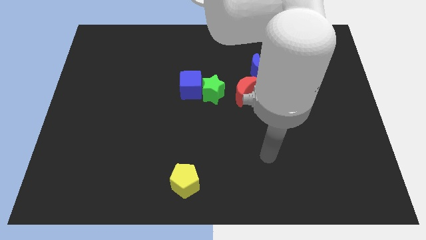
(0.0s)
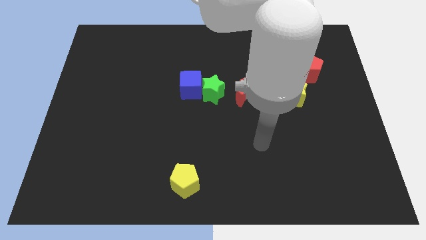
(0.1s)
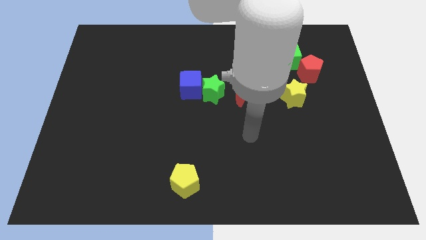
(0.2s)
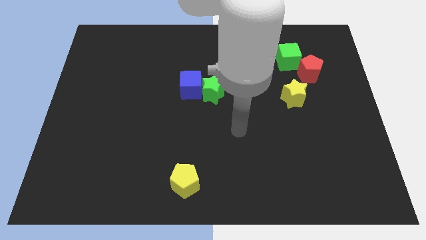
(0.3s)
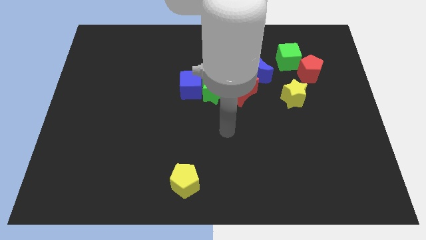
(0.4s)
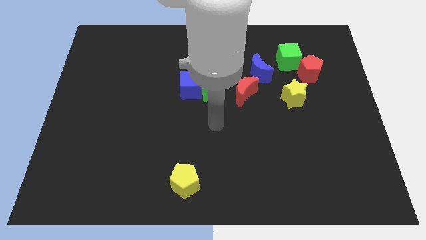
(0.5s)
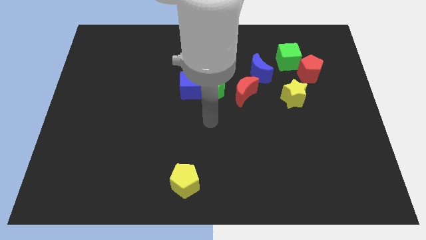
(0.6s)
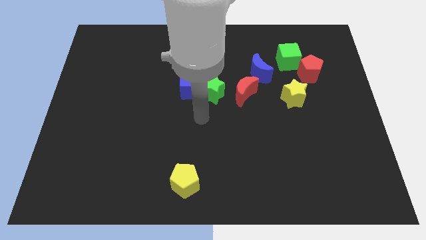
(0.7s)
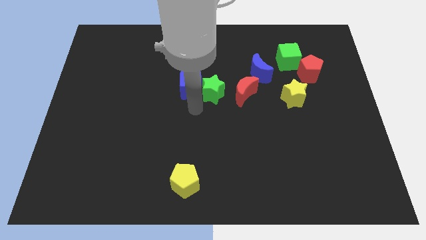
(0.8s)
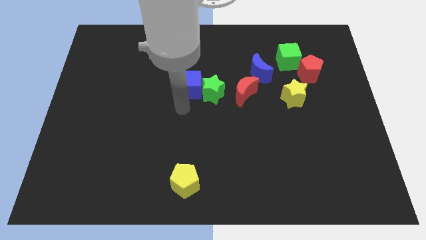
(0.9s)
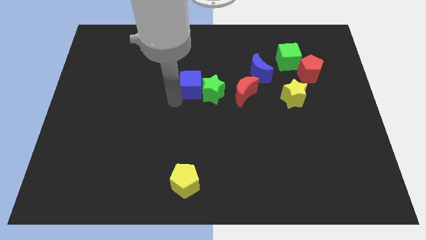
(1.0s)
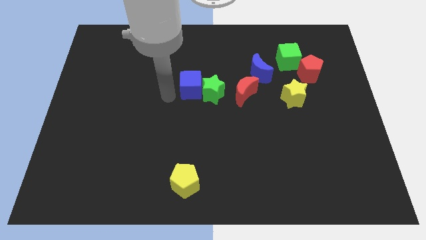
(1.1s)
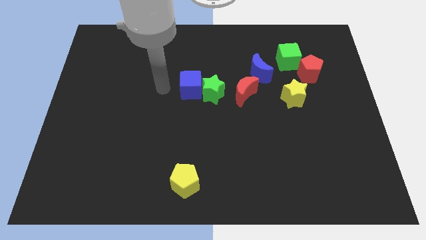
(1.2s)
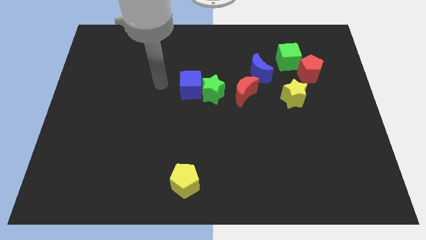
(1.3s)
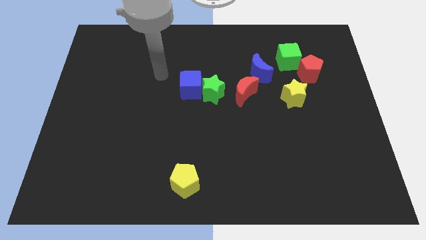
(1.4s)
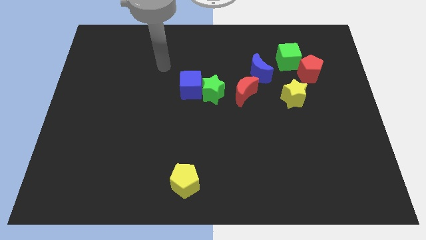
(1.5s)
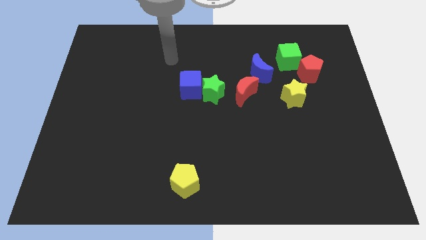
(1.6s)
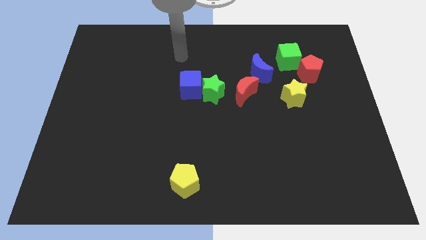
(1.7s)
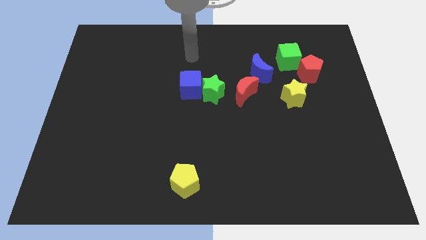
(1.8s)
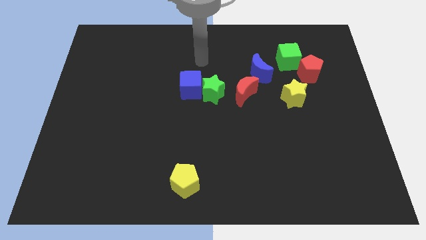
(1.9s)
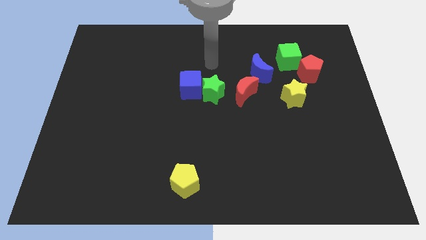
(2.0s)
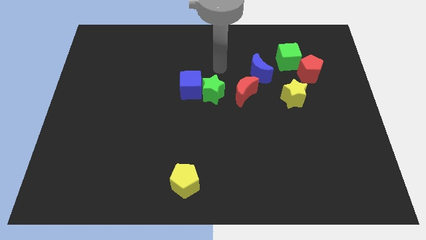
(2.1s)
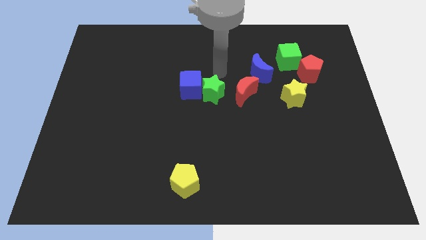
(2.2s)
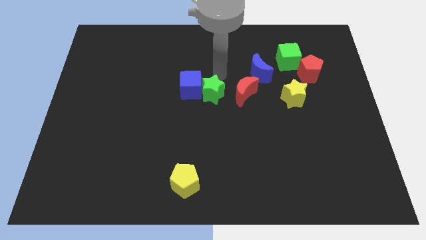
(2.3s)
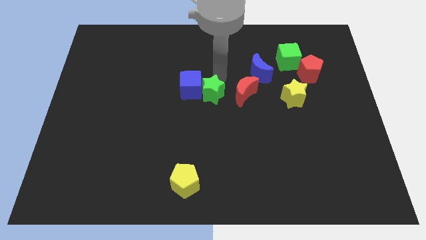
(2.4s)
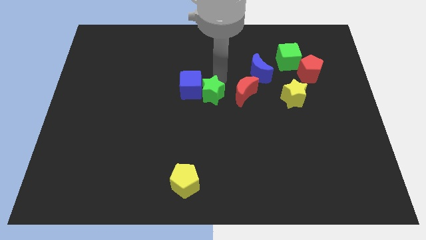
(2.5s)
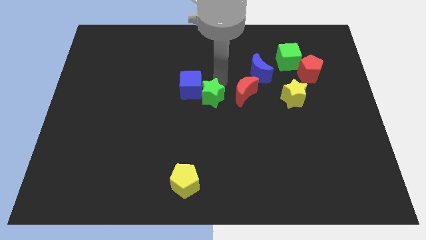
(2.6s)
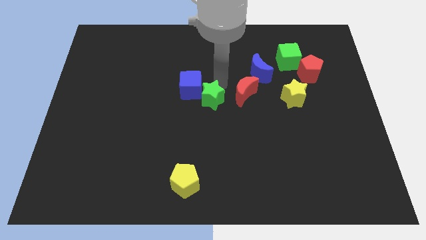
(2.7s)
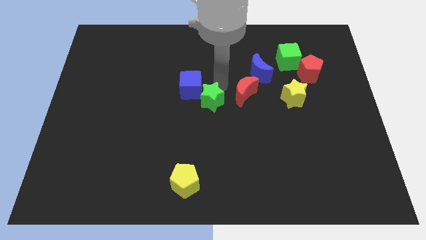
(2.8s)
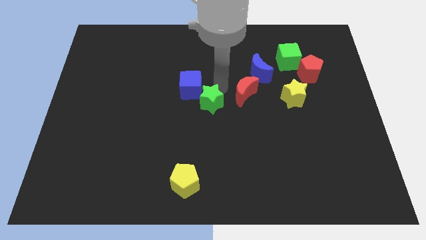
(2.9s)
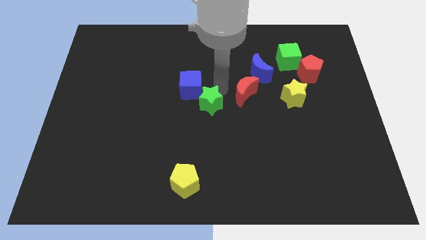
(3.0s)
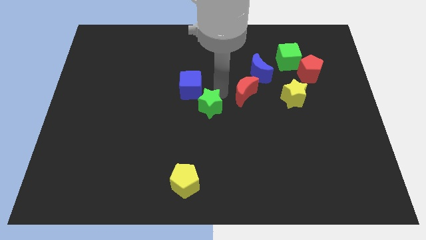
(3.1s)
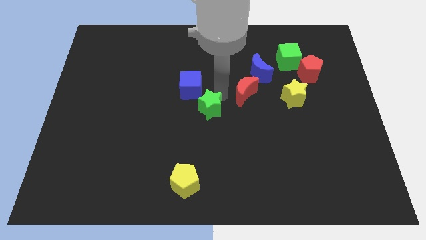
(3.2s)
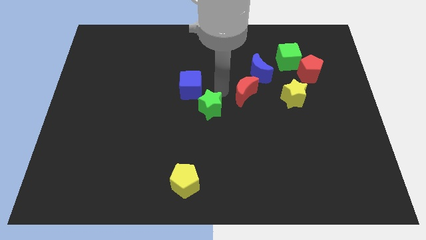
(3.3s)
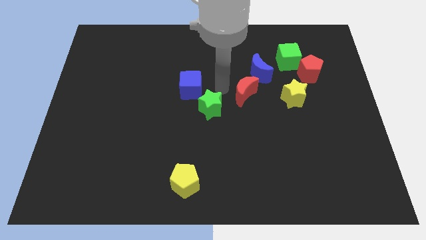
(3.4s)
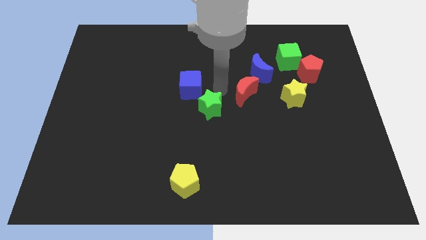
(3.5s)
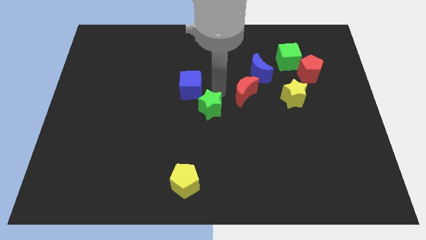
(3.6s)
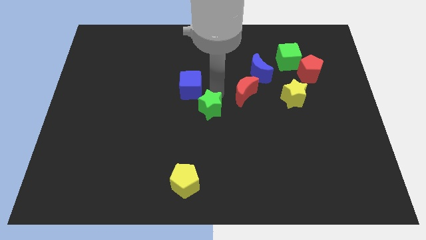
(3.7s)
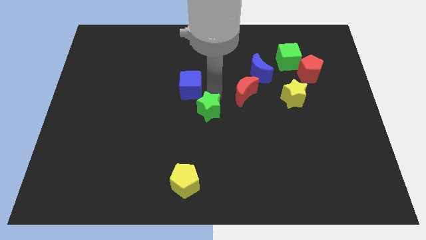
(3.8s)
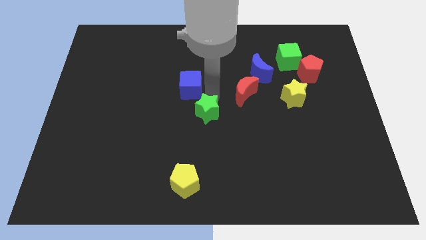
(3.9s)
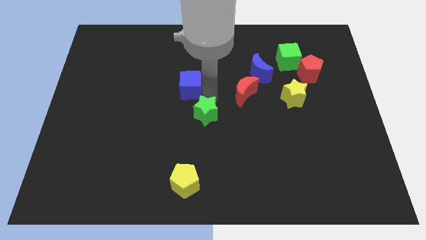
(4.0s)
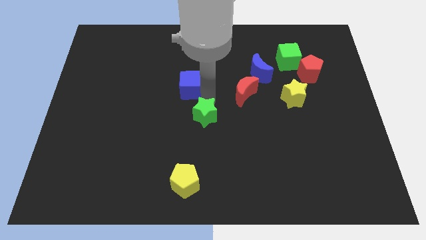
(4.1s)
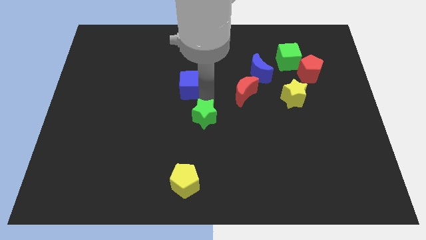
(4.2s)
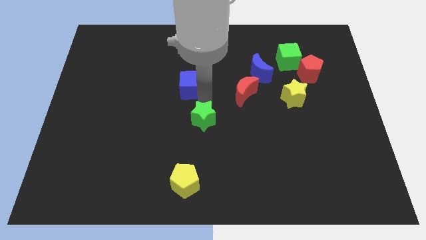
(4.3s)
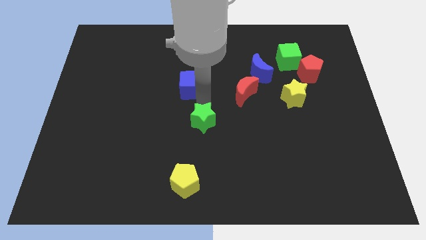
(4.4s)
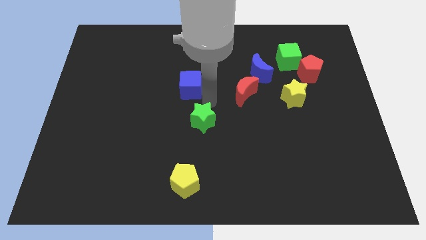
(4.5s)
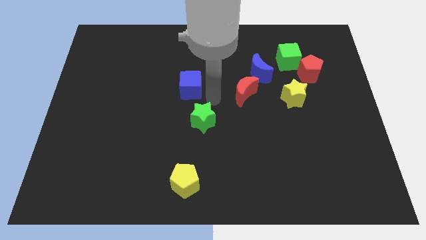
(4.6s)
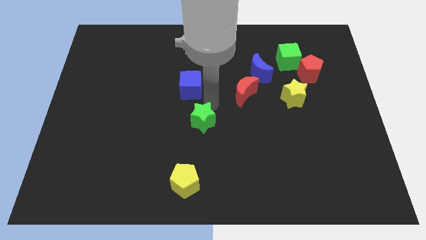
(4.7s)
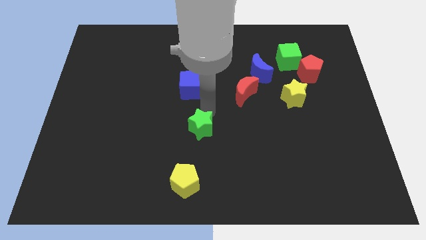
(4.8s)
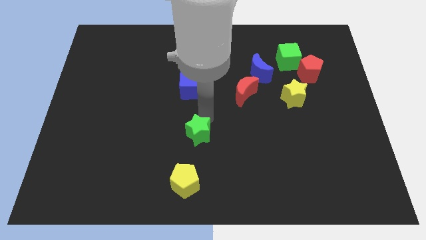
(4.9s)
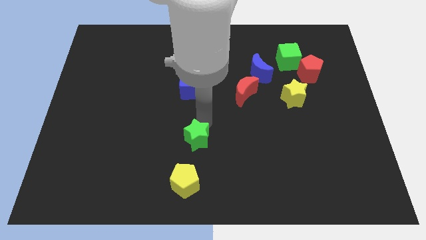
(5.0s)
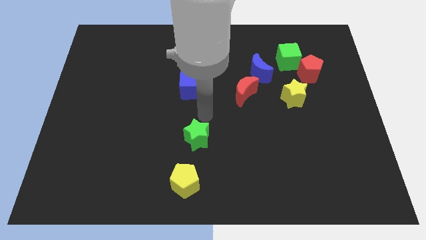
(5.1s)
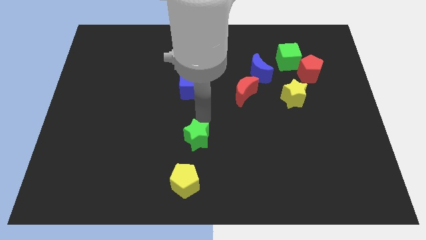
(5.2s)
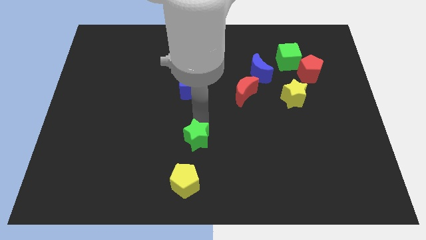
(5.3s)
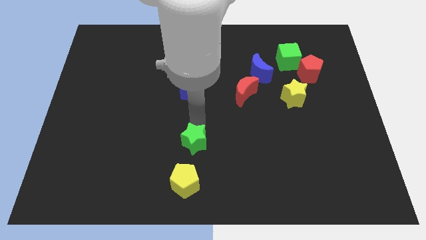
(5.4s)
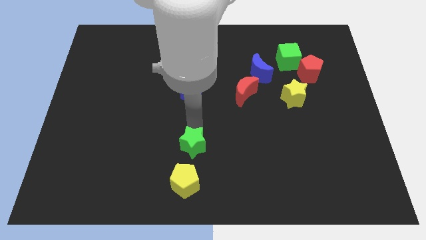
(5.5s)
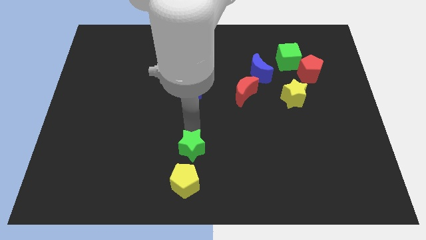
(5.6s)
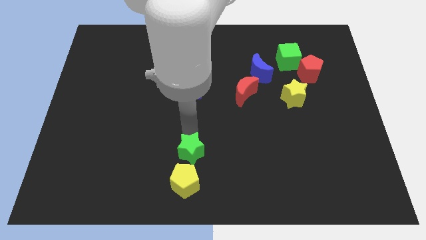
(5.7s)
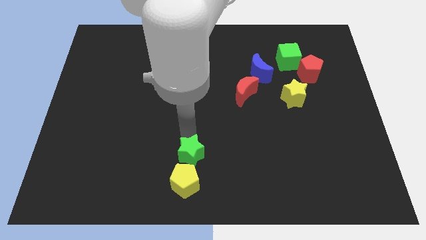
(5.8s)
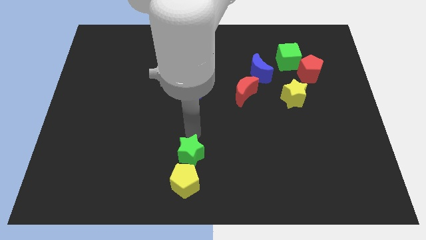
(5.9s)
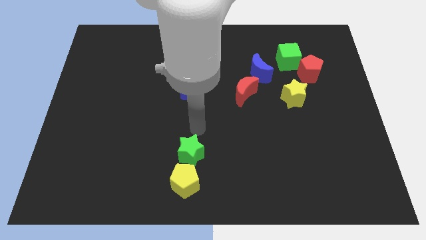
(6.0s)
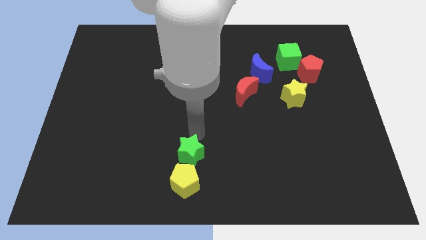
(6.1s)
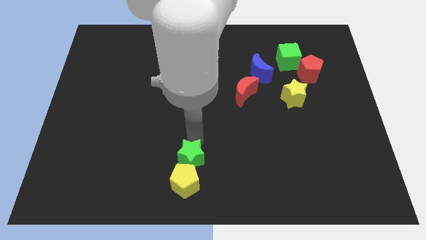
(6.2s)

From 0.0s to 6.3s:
put the green star towards the yellow pentagon

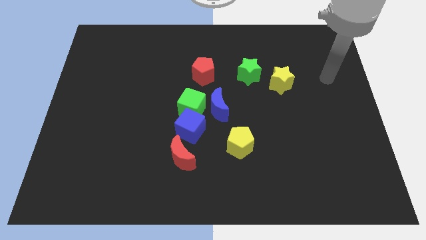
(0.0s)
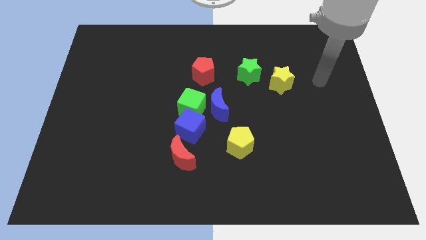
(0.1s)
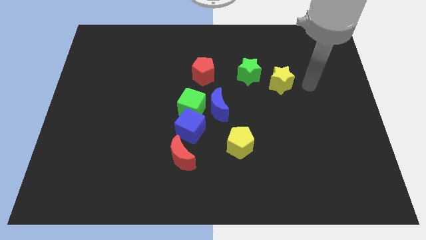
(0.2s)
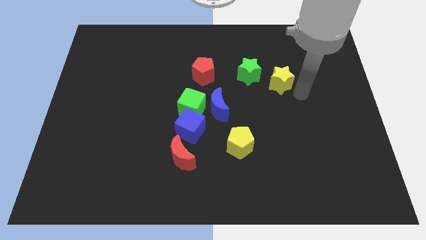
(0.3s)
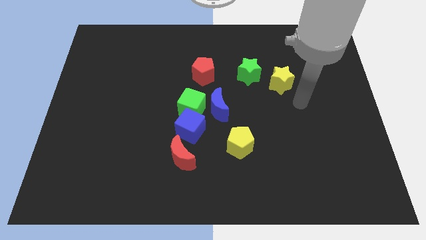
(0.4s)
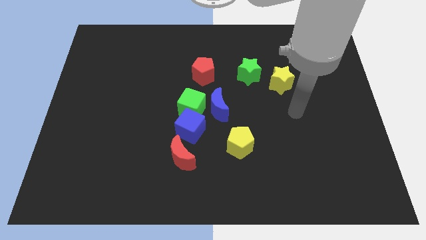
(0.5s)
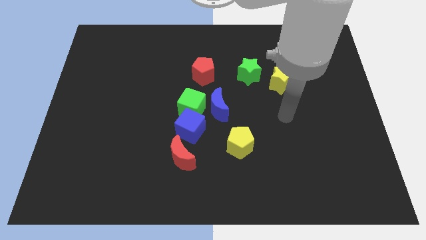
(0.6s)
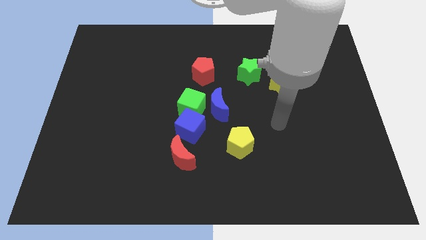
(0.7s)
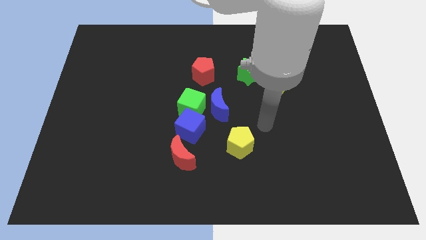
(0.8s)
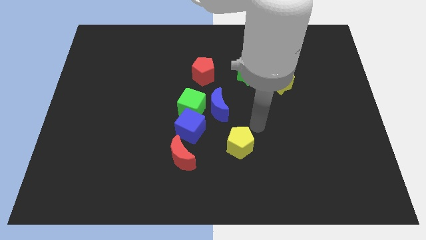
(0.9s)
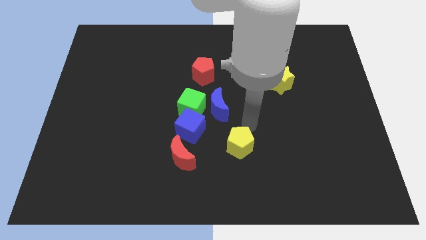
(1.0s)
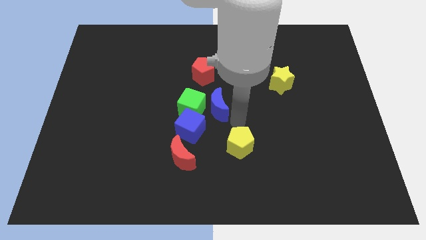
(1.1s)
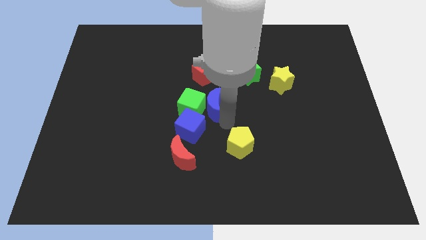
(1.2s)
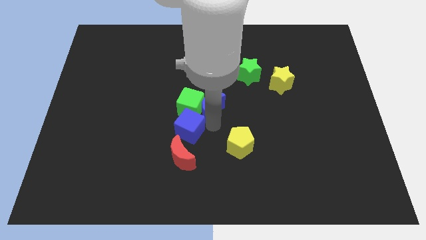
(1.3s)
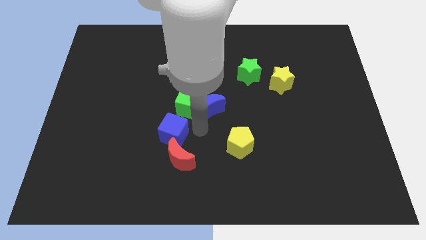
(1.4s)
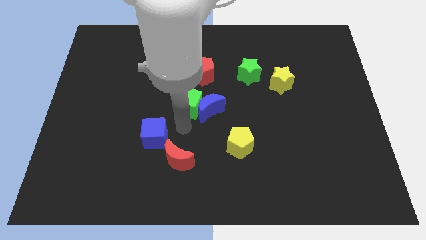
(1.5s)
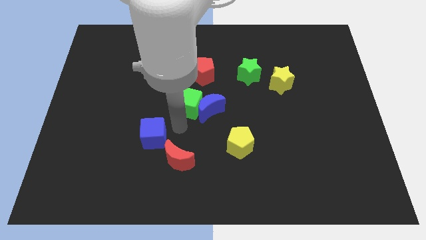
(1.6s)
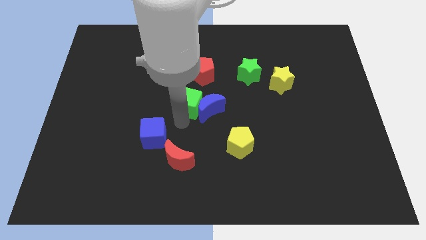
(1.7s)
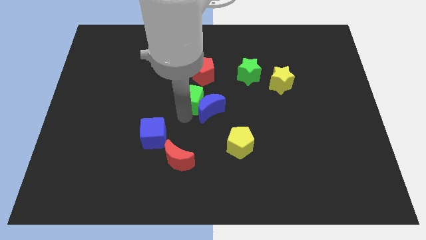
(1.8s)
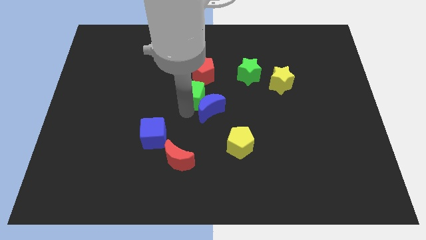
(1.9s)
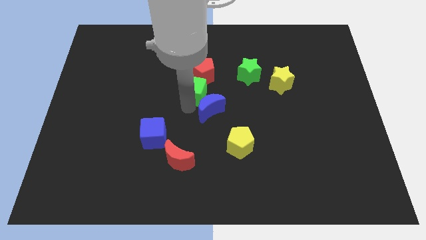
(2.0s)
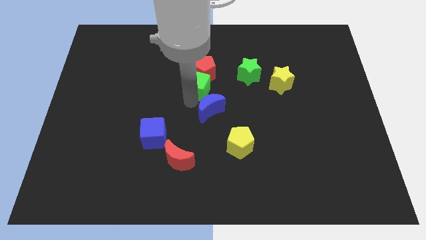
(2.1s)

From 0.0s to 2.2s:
move the green cube towards the red pentagon

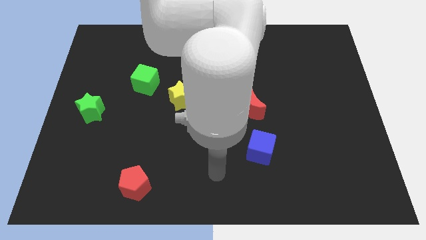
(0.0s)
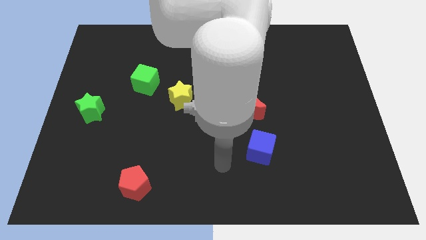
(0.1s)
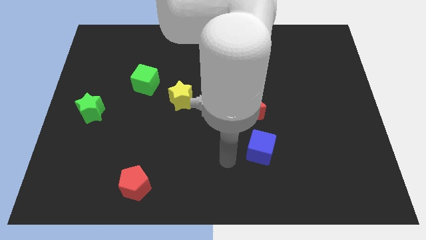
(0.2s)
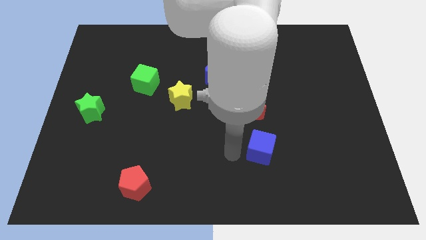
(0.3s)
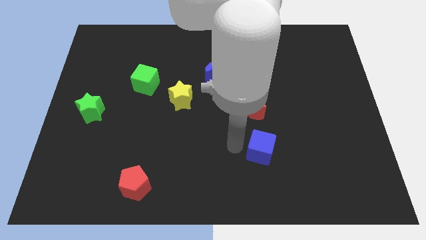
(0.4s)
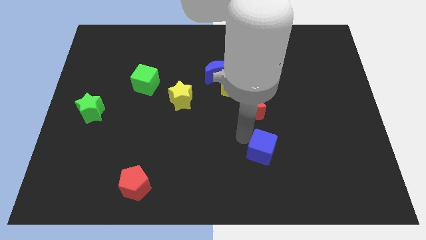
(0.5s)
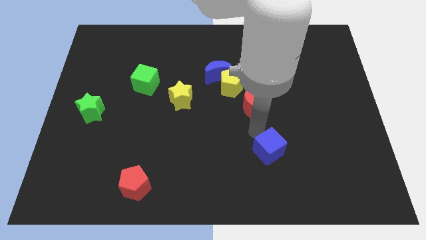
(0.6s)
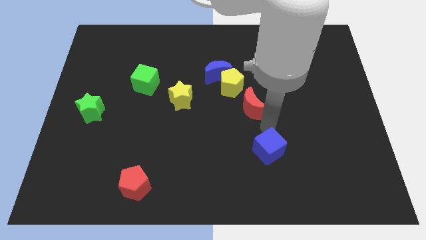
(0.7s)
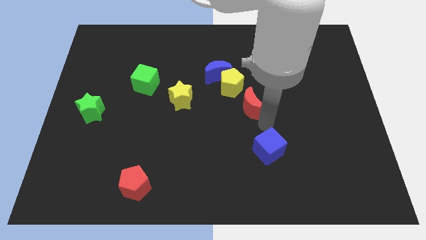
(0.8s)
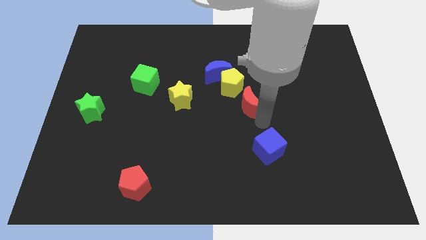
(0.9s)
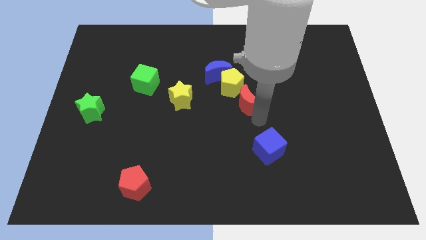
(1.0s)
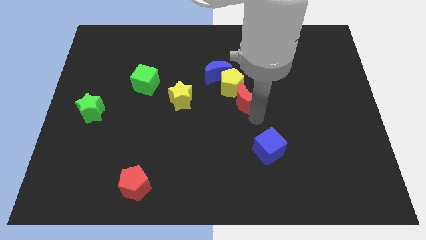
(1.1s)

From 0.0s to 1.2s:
push the red moon next to the yellow pentagon
